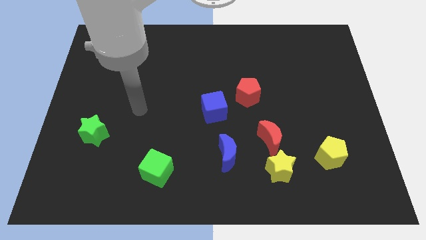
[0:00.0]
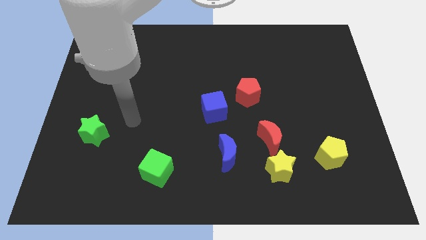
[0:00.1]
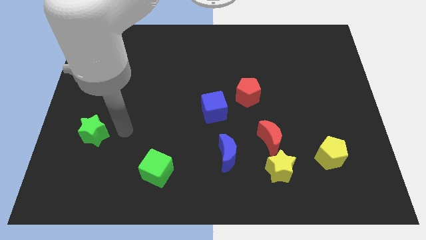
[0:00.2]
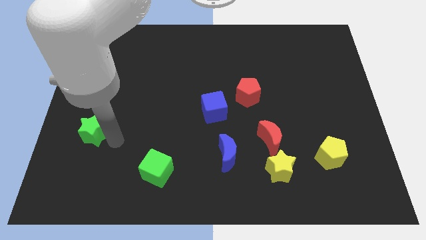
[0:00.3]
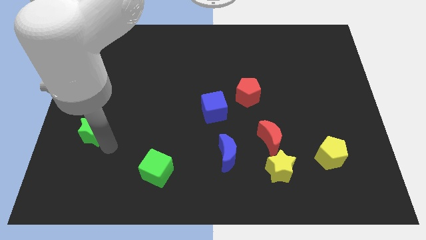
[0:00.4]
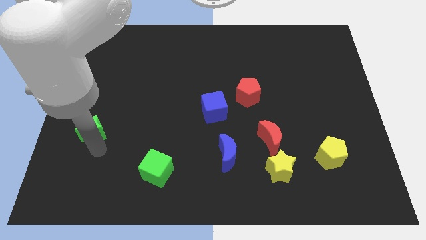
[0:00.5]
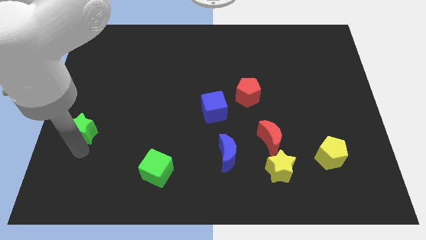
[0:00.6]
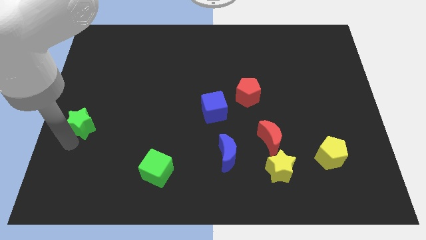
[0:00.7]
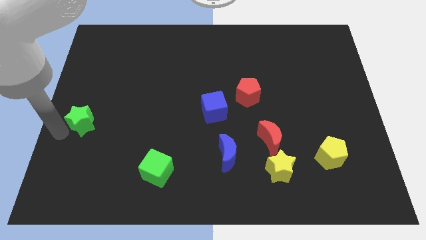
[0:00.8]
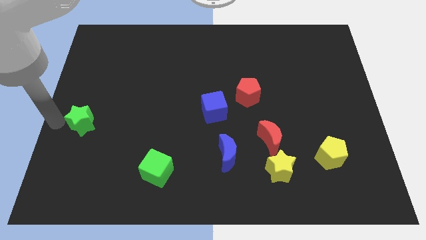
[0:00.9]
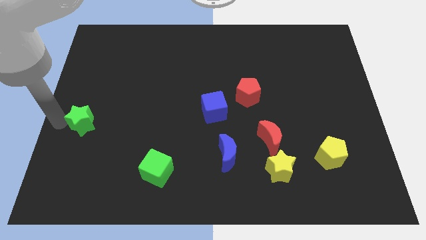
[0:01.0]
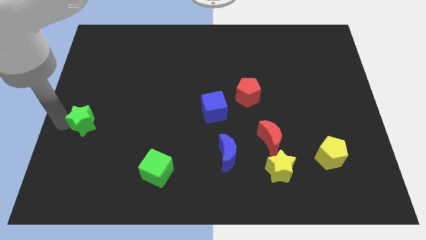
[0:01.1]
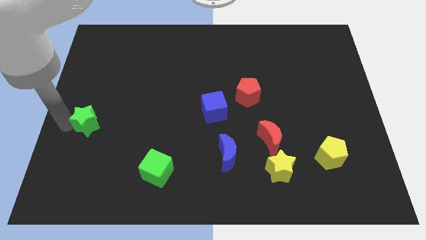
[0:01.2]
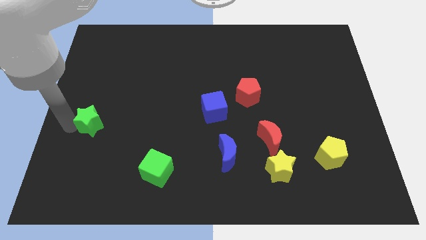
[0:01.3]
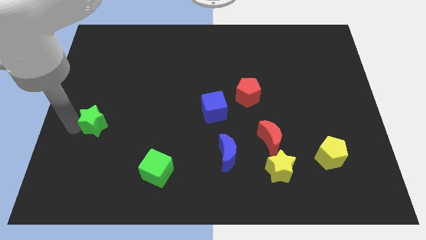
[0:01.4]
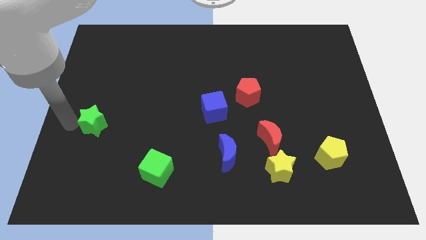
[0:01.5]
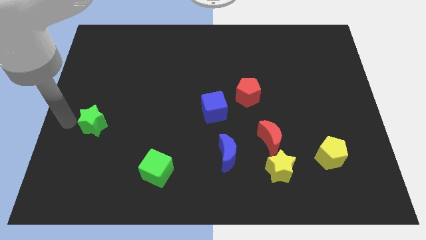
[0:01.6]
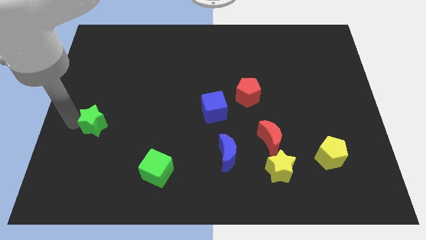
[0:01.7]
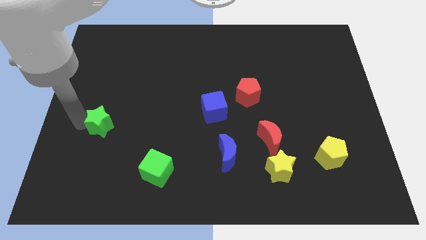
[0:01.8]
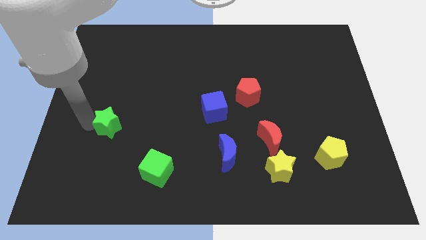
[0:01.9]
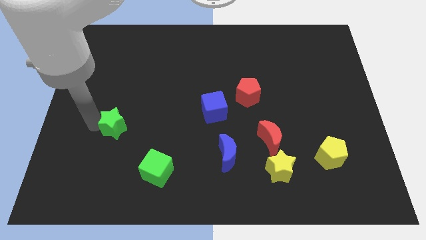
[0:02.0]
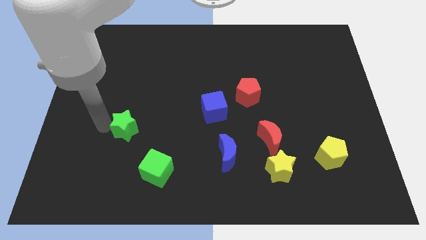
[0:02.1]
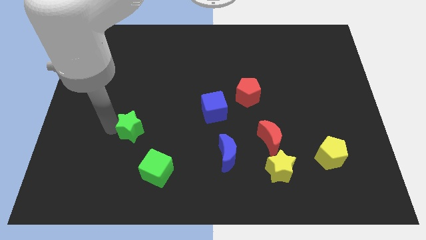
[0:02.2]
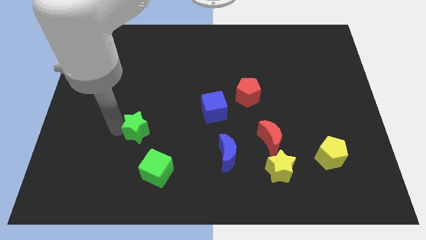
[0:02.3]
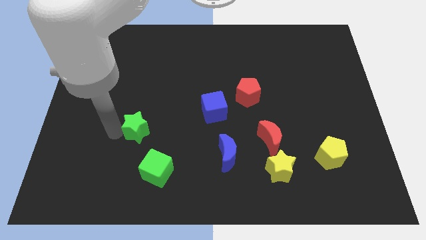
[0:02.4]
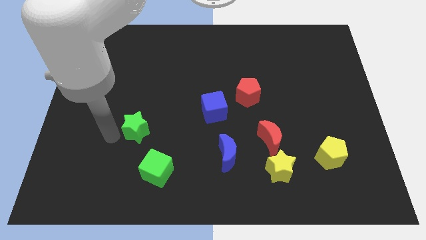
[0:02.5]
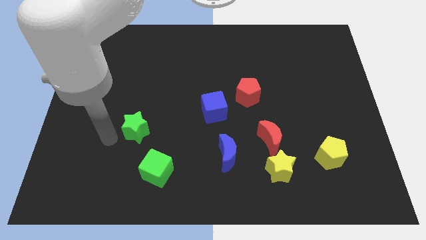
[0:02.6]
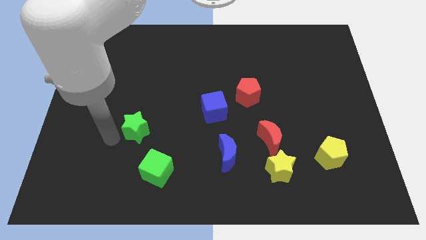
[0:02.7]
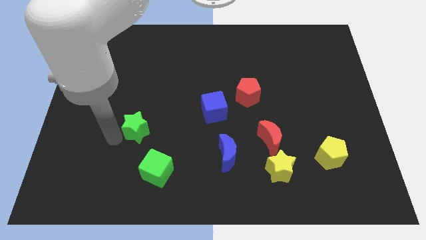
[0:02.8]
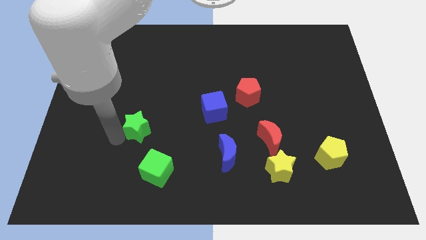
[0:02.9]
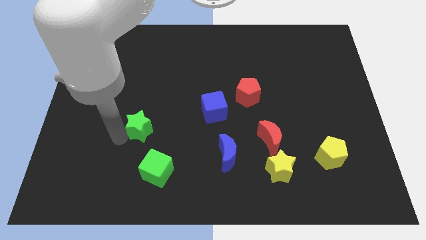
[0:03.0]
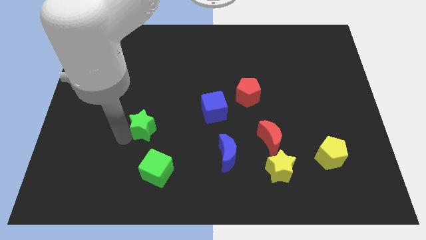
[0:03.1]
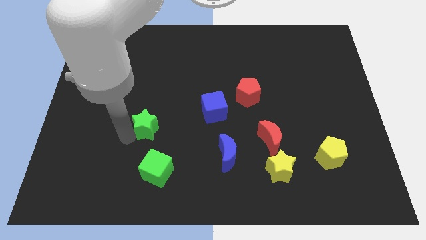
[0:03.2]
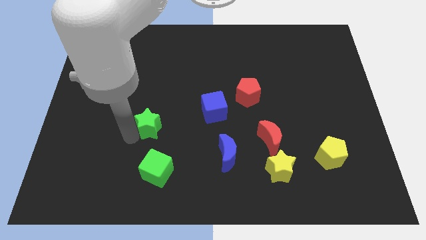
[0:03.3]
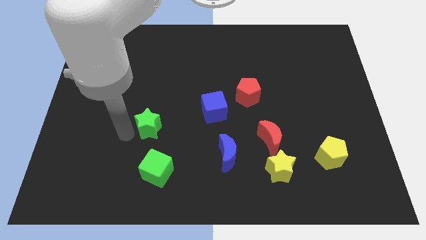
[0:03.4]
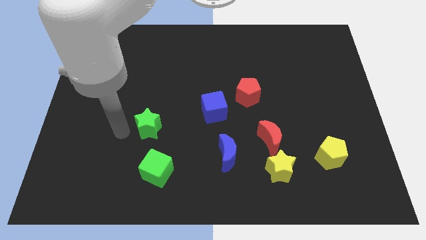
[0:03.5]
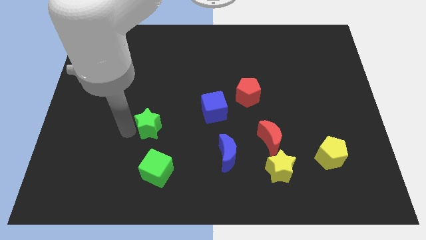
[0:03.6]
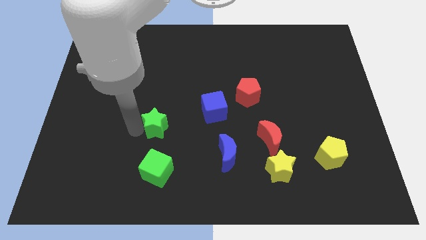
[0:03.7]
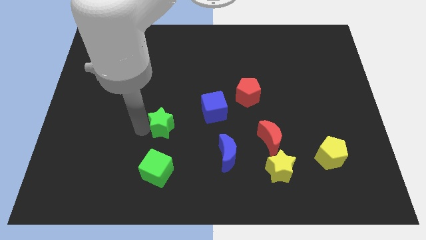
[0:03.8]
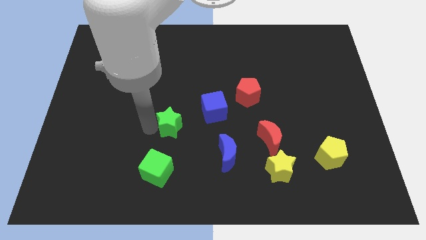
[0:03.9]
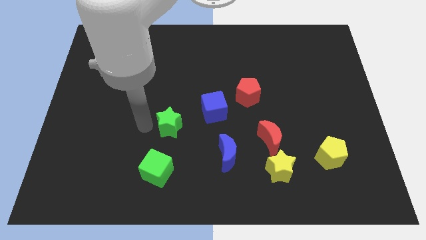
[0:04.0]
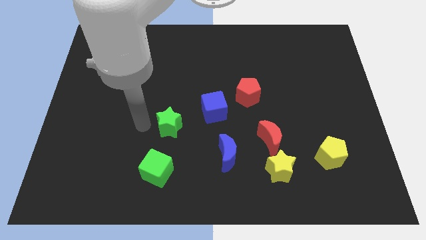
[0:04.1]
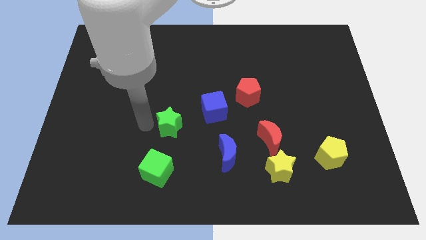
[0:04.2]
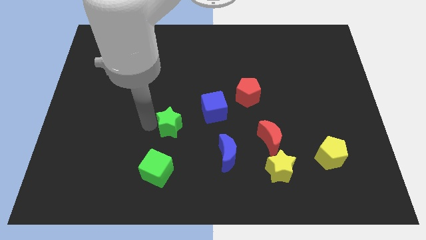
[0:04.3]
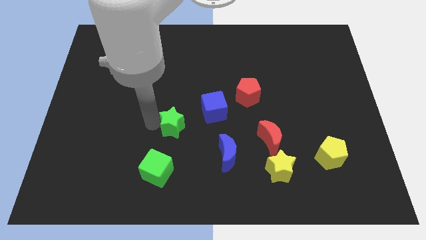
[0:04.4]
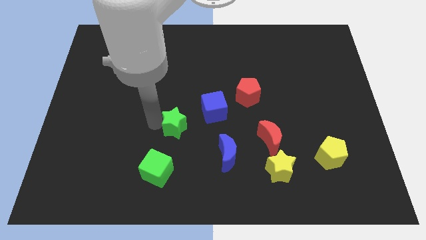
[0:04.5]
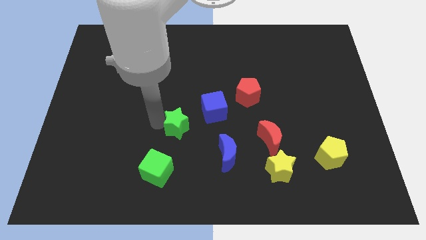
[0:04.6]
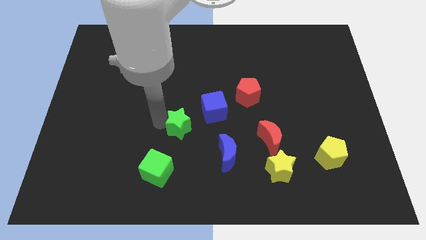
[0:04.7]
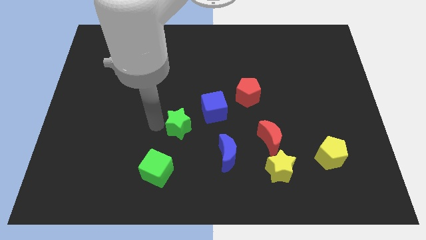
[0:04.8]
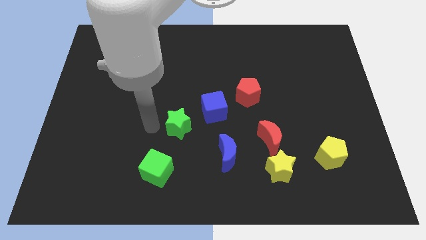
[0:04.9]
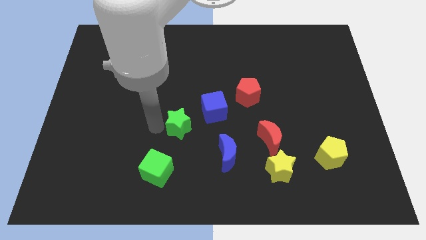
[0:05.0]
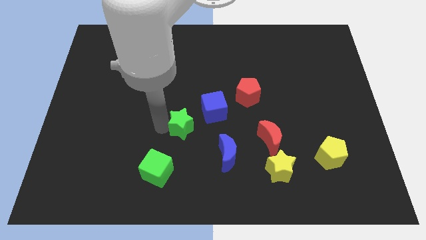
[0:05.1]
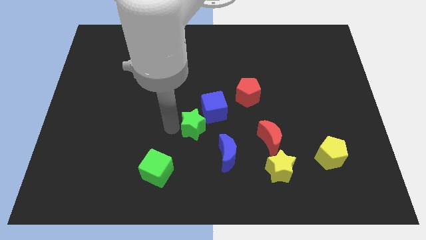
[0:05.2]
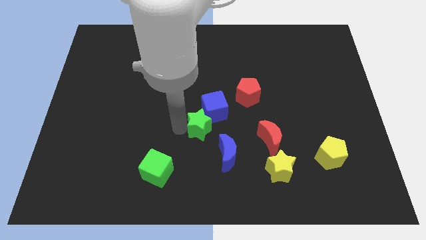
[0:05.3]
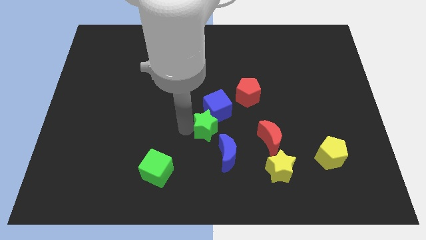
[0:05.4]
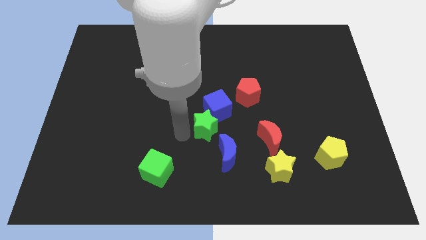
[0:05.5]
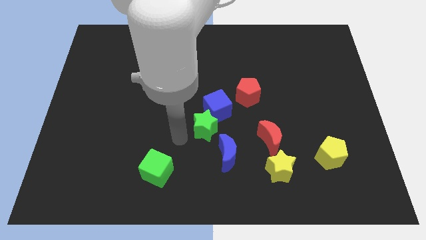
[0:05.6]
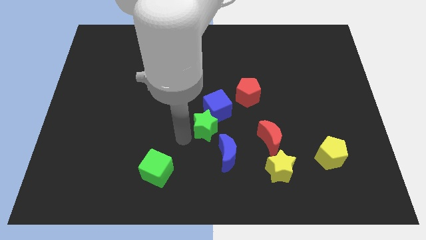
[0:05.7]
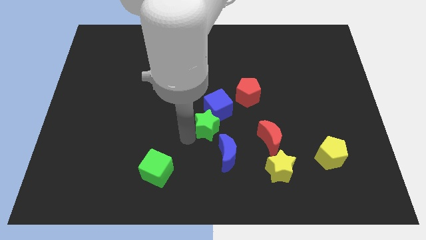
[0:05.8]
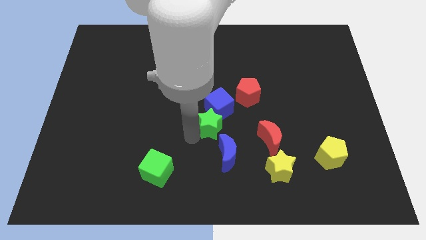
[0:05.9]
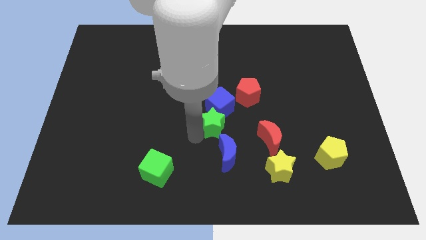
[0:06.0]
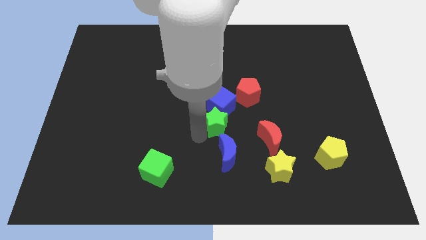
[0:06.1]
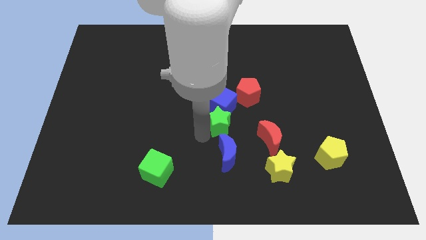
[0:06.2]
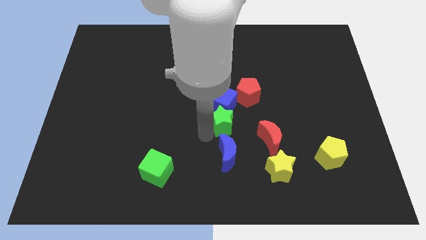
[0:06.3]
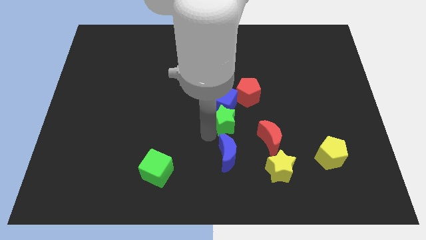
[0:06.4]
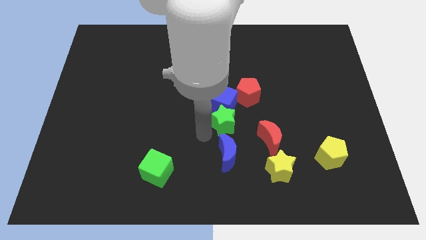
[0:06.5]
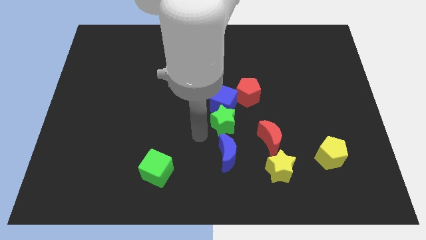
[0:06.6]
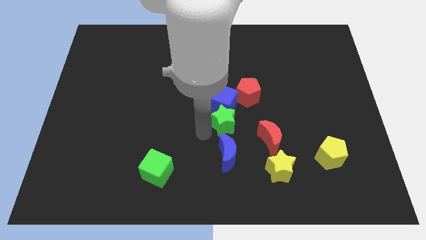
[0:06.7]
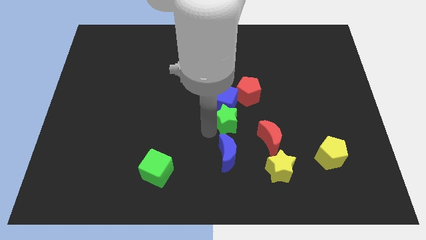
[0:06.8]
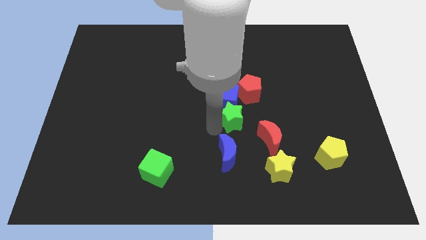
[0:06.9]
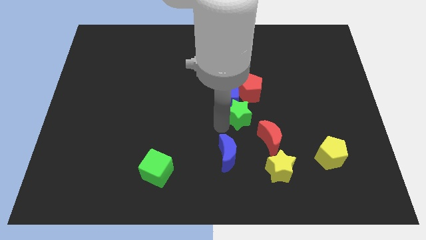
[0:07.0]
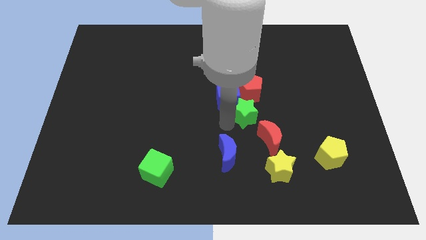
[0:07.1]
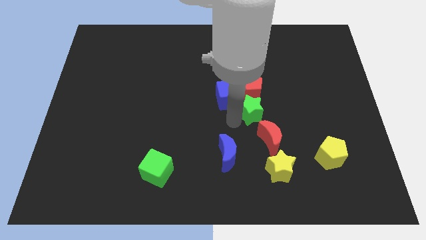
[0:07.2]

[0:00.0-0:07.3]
slide the green star to the top side of the red moon
